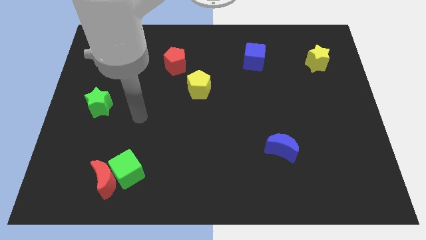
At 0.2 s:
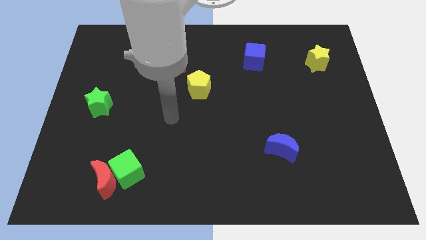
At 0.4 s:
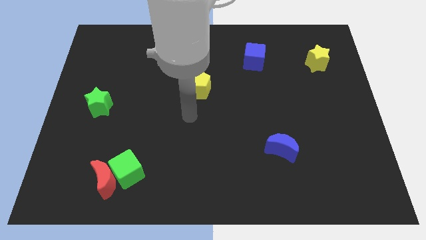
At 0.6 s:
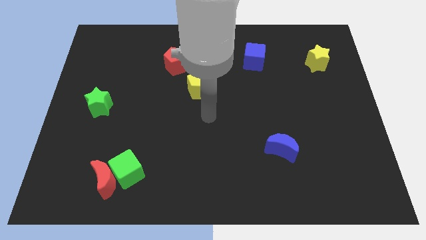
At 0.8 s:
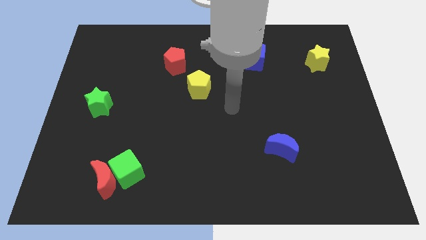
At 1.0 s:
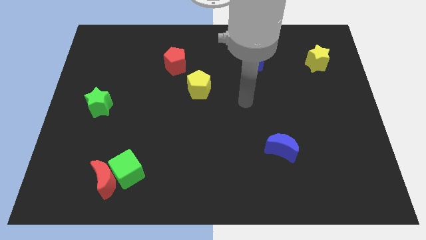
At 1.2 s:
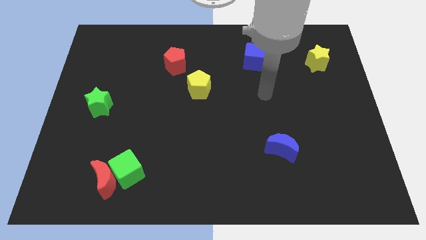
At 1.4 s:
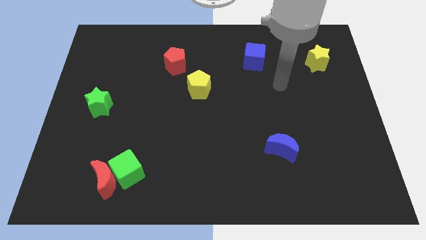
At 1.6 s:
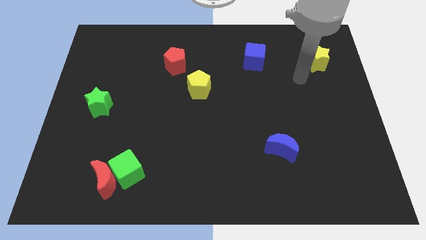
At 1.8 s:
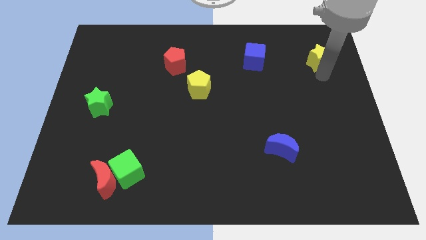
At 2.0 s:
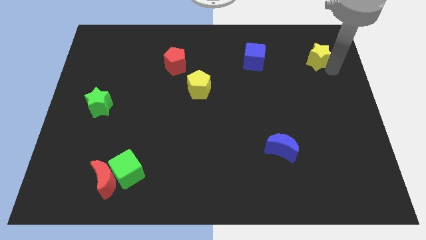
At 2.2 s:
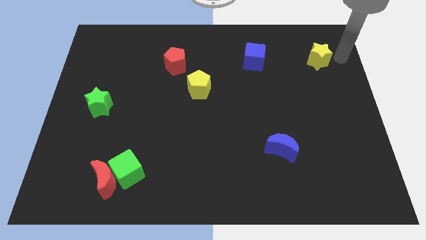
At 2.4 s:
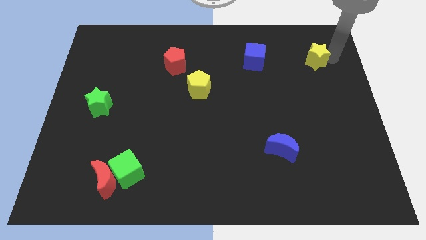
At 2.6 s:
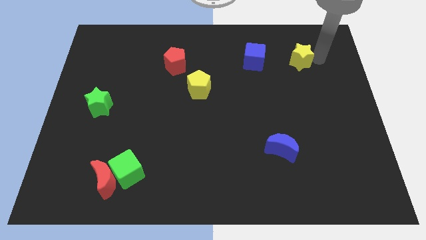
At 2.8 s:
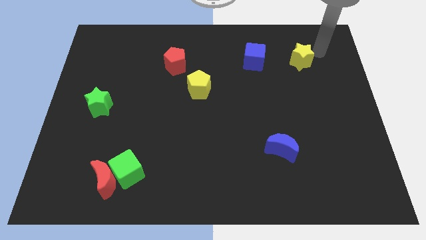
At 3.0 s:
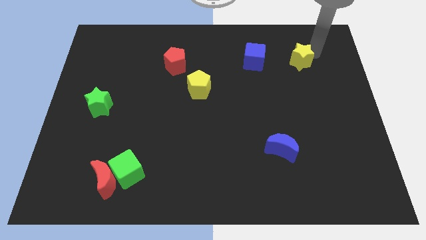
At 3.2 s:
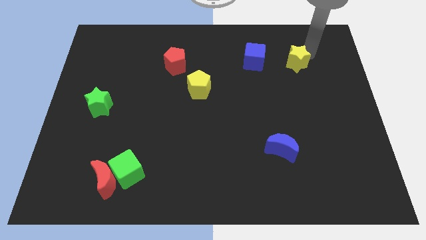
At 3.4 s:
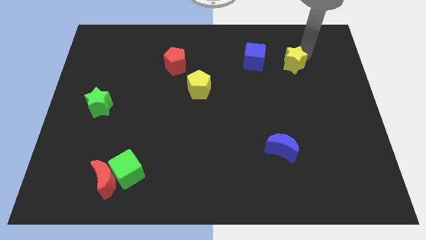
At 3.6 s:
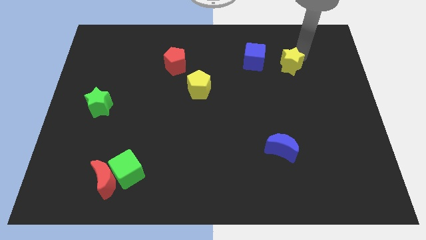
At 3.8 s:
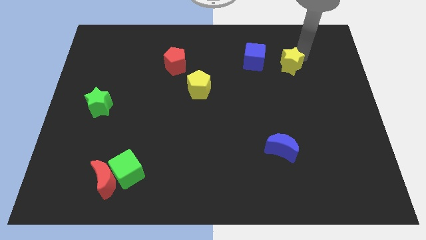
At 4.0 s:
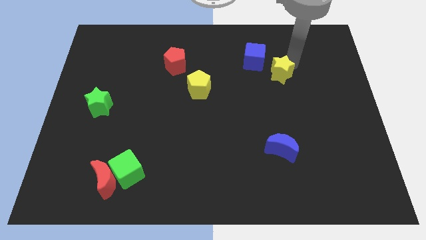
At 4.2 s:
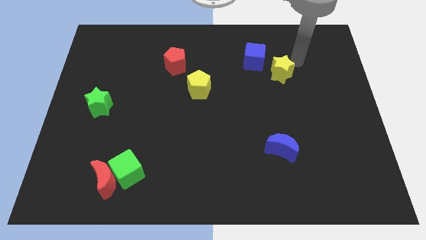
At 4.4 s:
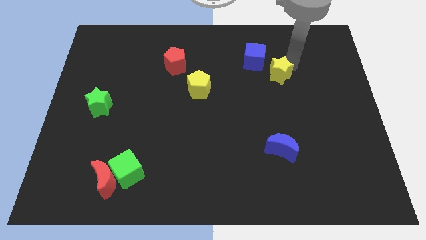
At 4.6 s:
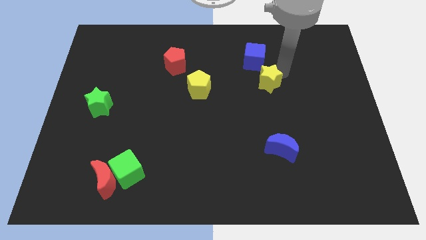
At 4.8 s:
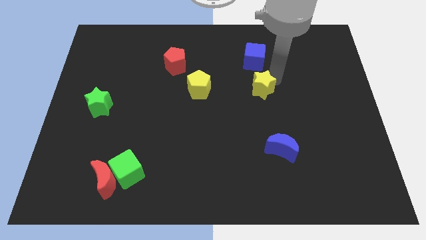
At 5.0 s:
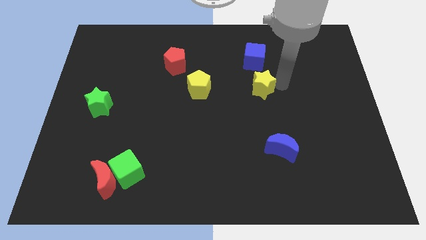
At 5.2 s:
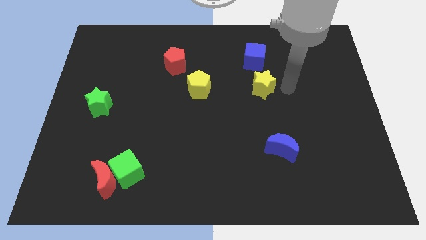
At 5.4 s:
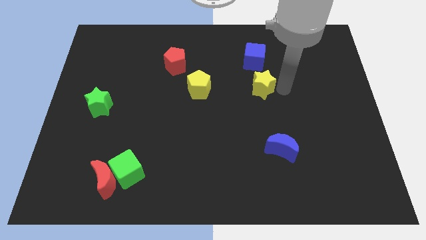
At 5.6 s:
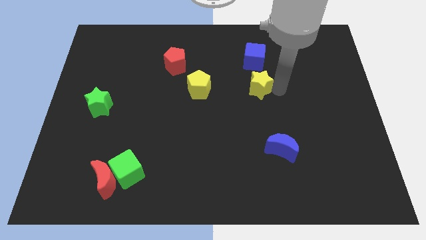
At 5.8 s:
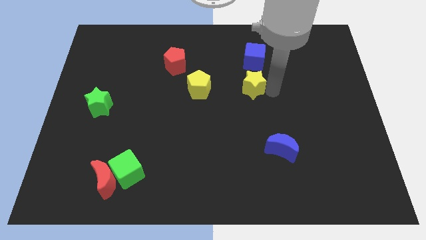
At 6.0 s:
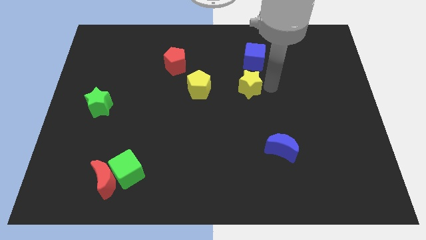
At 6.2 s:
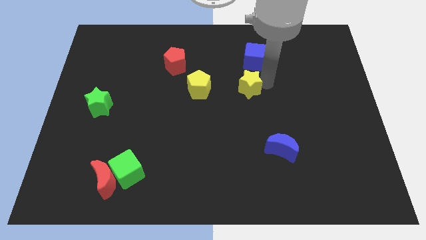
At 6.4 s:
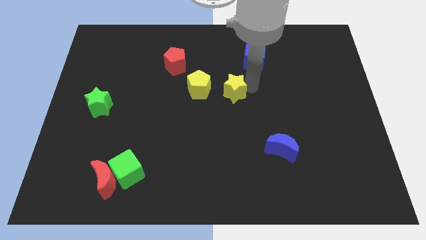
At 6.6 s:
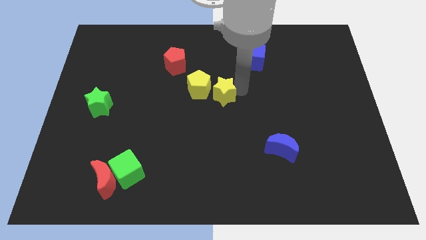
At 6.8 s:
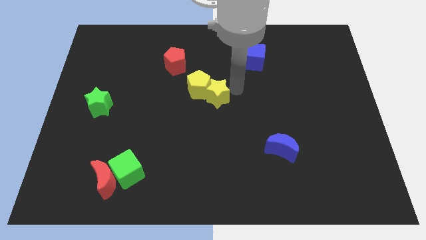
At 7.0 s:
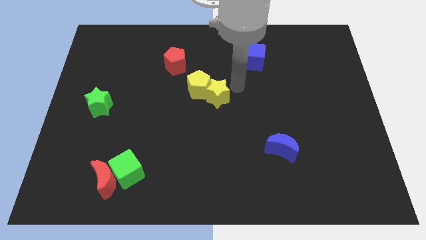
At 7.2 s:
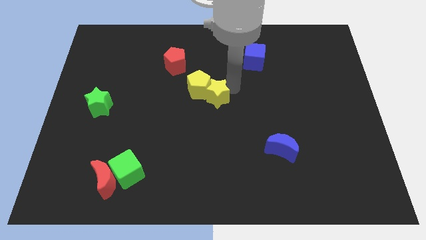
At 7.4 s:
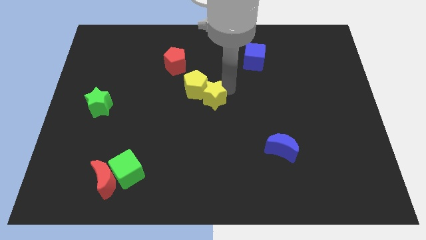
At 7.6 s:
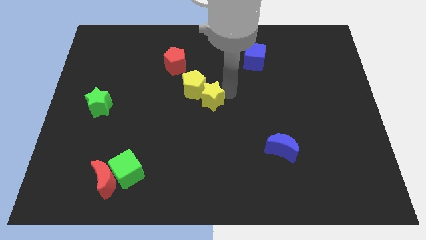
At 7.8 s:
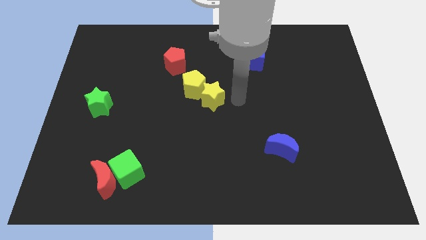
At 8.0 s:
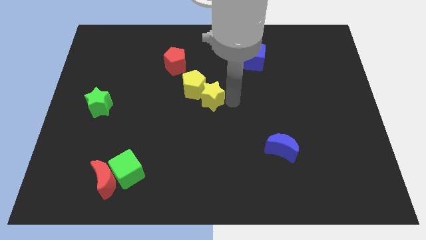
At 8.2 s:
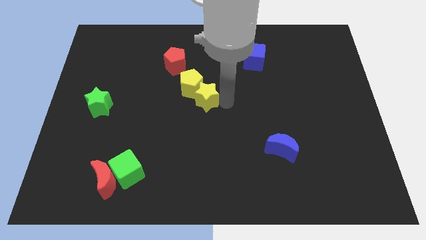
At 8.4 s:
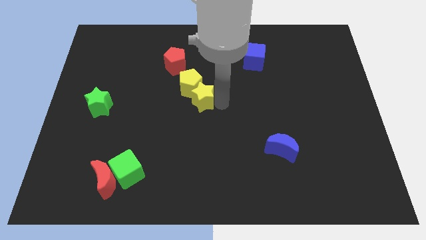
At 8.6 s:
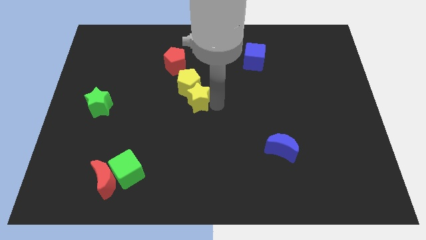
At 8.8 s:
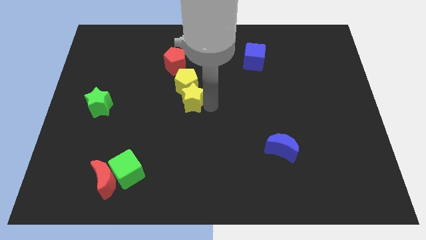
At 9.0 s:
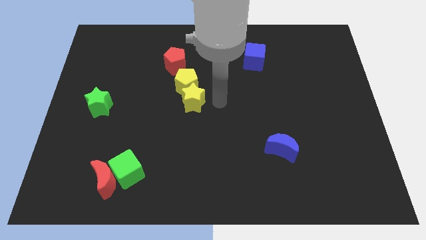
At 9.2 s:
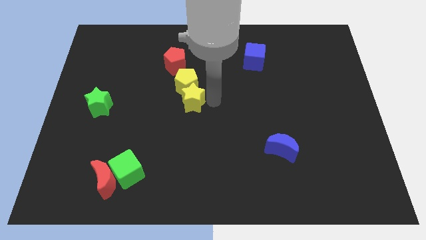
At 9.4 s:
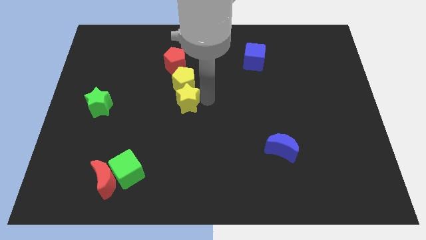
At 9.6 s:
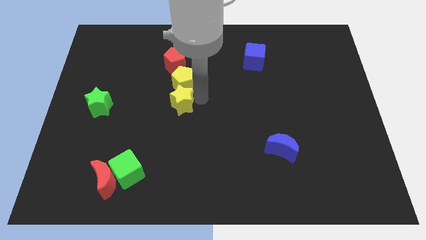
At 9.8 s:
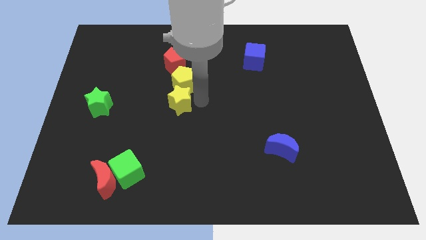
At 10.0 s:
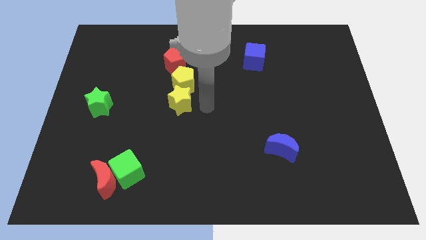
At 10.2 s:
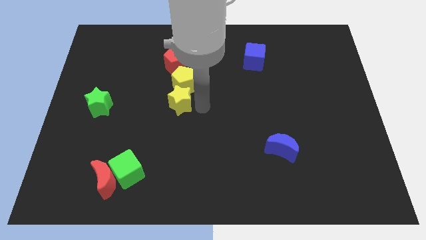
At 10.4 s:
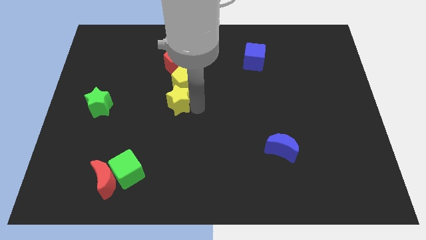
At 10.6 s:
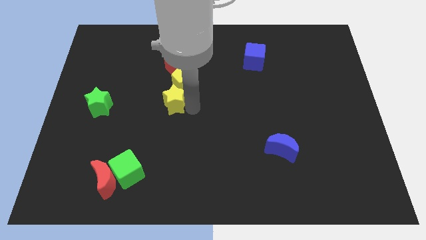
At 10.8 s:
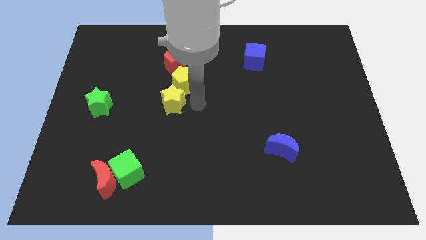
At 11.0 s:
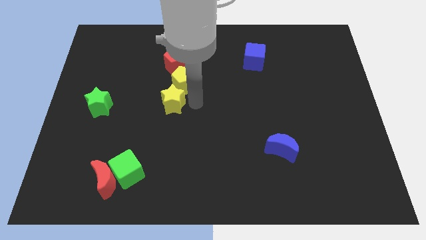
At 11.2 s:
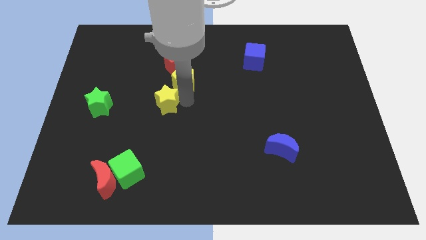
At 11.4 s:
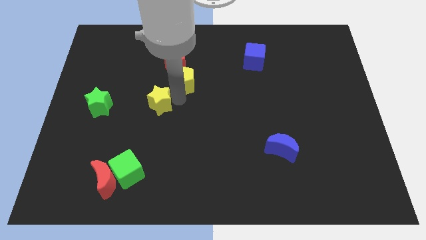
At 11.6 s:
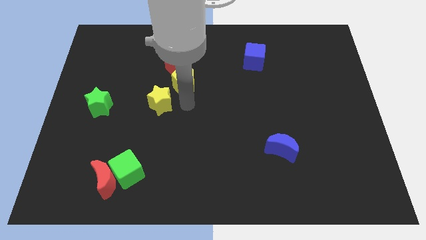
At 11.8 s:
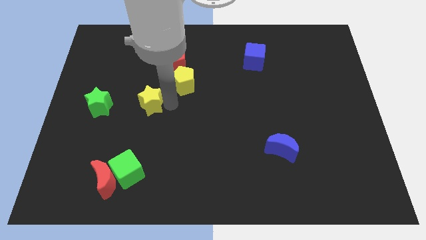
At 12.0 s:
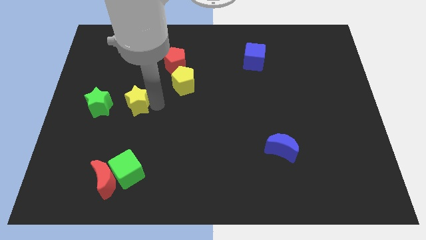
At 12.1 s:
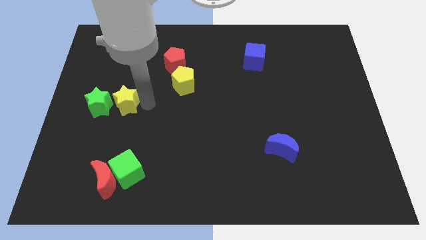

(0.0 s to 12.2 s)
push the yellow star to the green star

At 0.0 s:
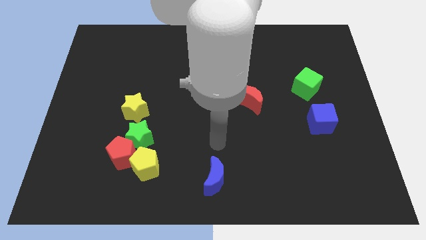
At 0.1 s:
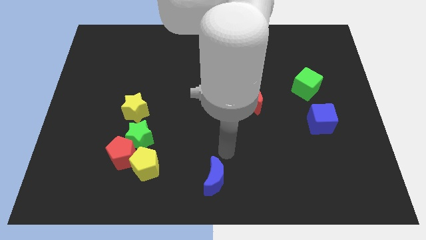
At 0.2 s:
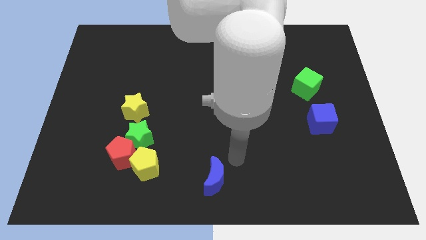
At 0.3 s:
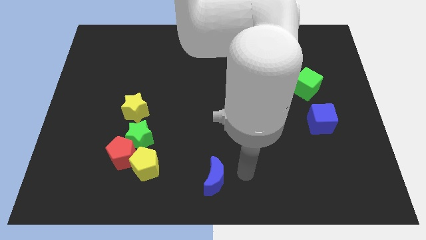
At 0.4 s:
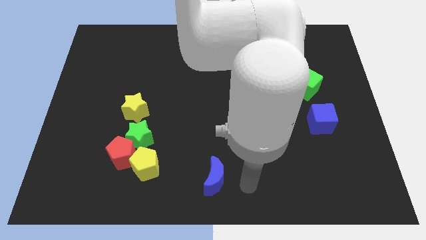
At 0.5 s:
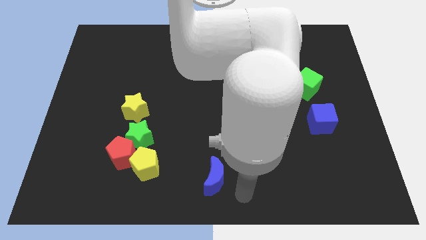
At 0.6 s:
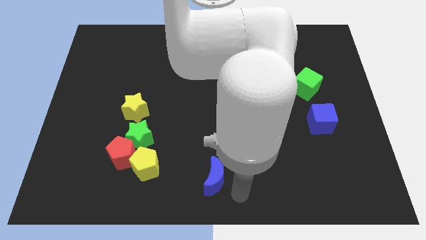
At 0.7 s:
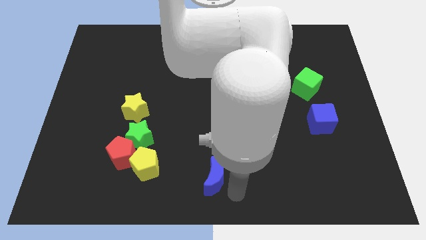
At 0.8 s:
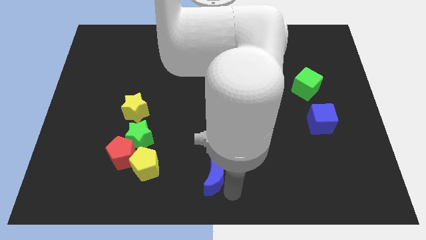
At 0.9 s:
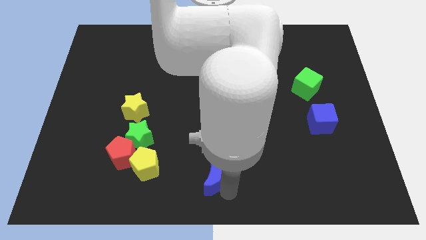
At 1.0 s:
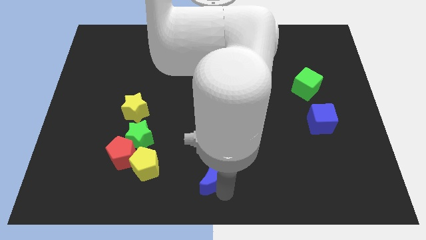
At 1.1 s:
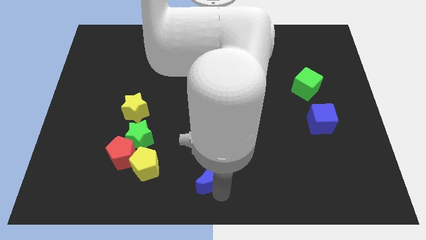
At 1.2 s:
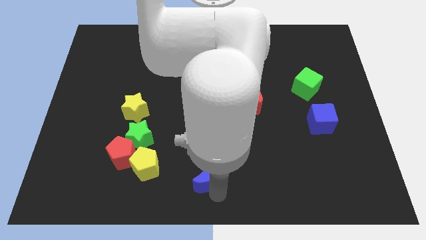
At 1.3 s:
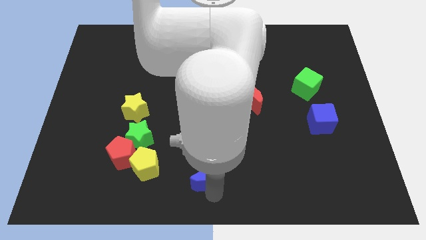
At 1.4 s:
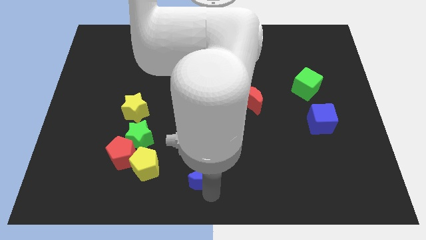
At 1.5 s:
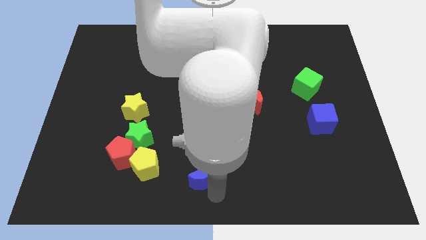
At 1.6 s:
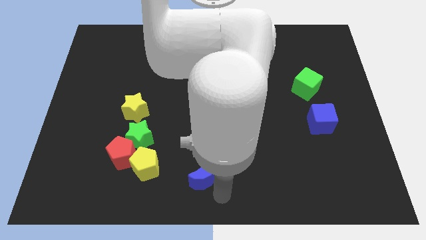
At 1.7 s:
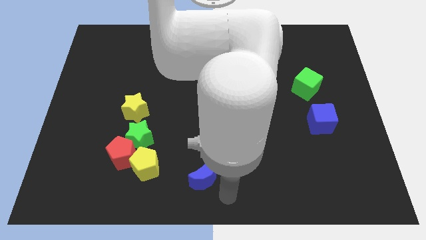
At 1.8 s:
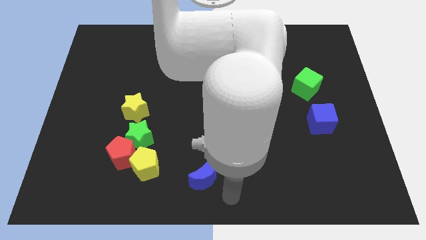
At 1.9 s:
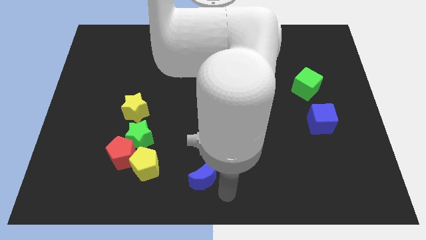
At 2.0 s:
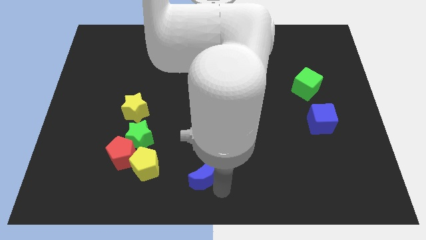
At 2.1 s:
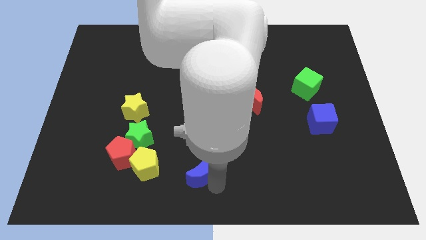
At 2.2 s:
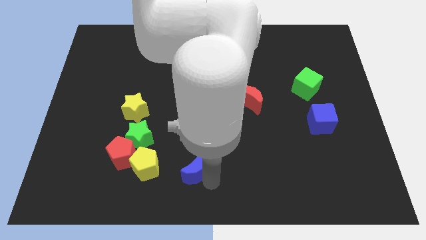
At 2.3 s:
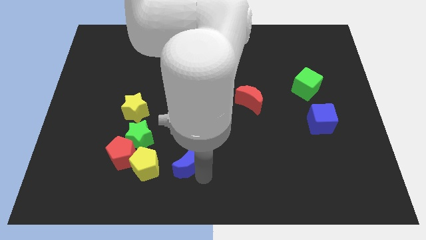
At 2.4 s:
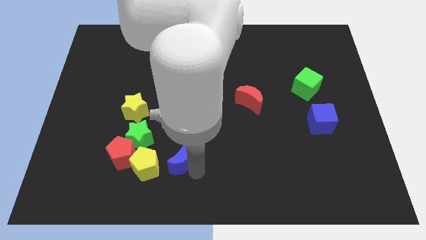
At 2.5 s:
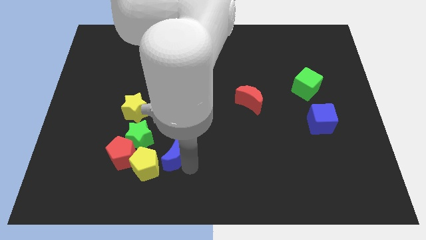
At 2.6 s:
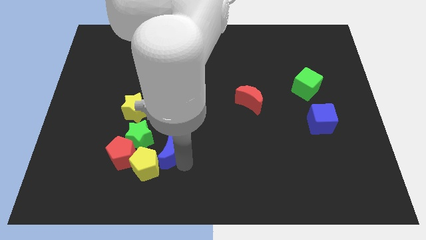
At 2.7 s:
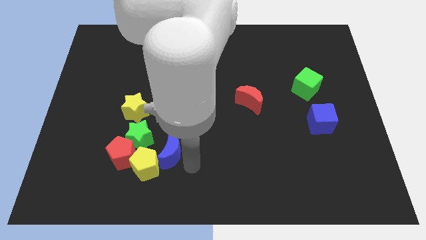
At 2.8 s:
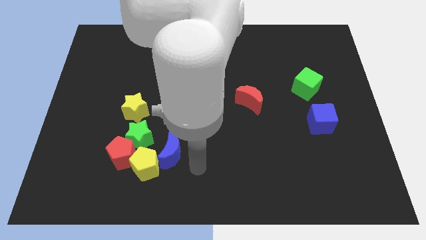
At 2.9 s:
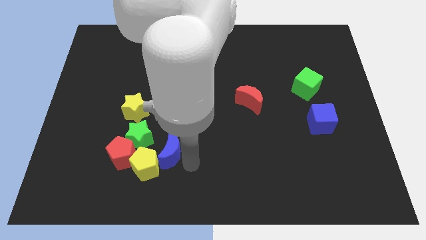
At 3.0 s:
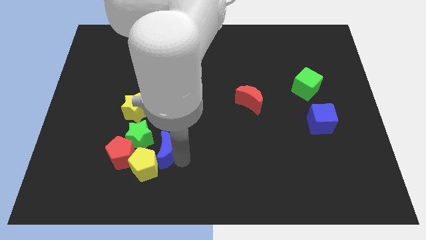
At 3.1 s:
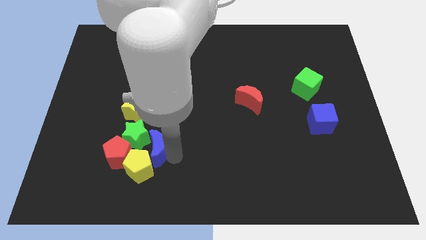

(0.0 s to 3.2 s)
push the blue moon close to the green star
